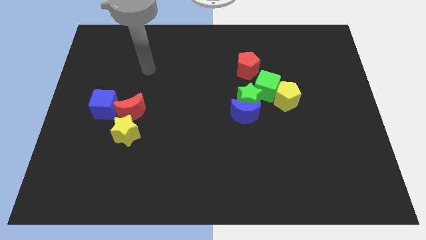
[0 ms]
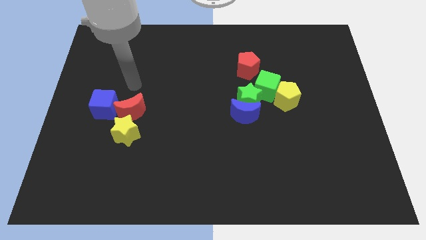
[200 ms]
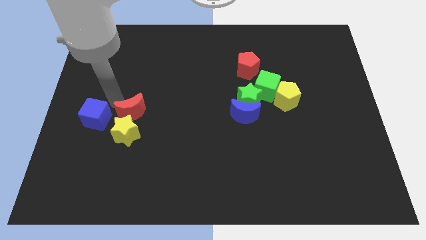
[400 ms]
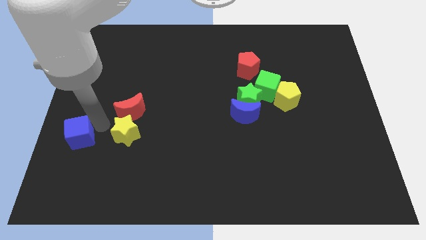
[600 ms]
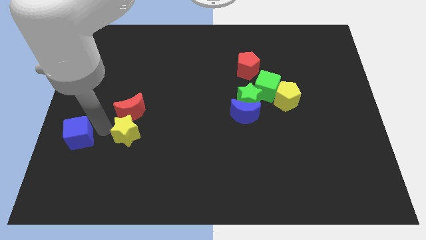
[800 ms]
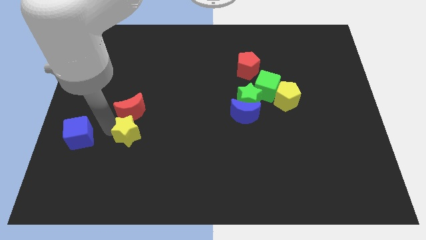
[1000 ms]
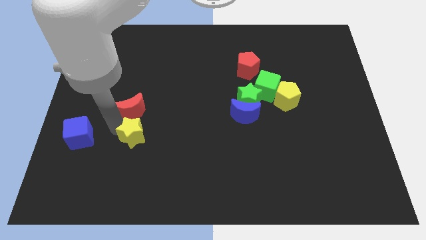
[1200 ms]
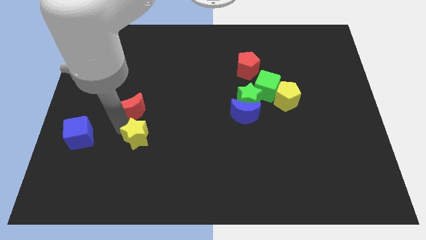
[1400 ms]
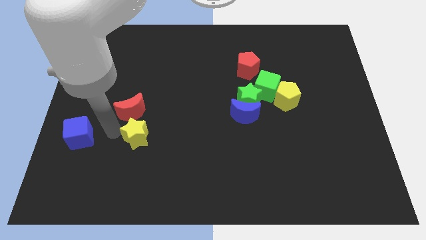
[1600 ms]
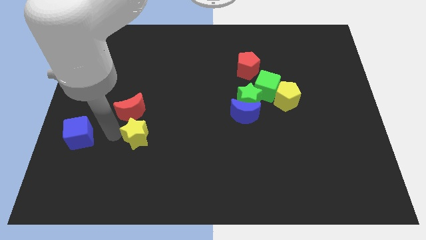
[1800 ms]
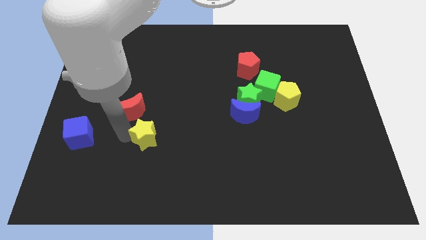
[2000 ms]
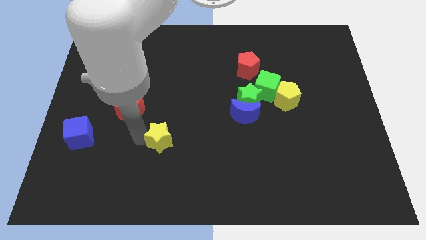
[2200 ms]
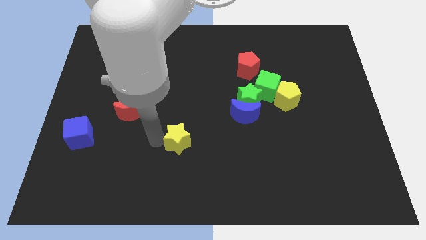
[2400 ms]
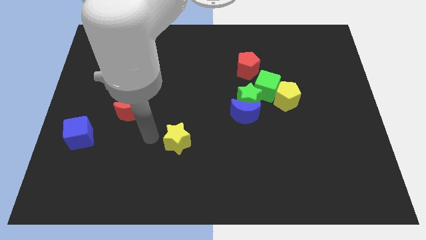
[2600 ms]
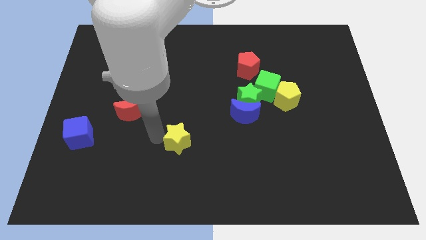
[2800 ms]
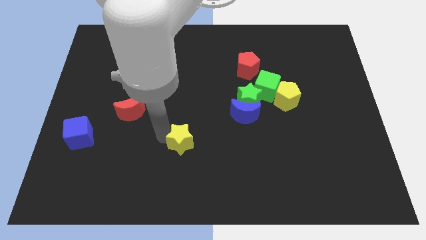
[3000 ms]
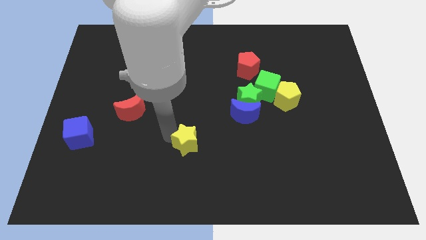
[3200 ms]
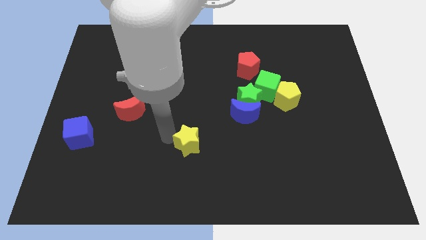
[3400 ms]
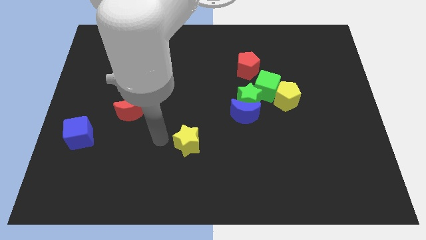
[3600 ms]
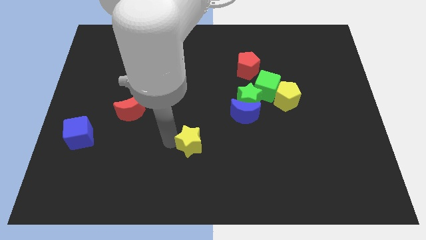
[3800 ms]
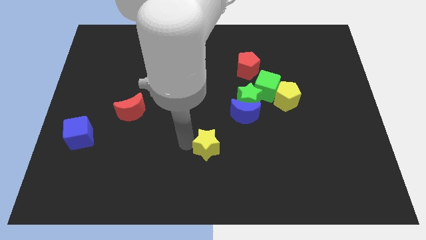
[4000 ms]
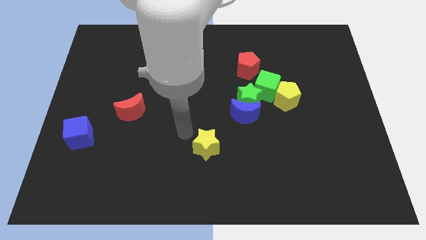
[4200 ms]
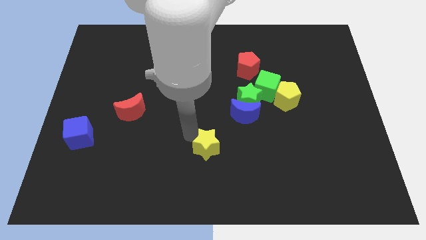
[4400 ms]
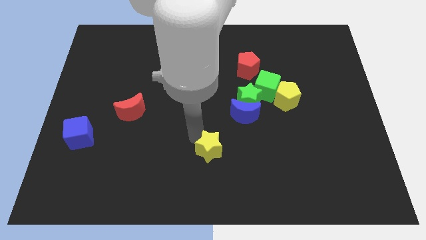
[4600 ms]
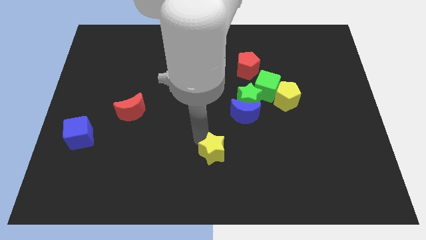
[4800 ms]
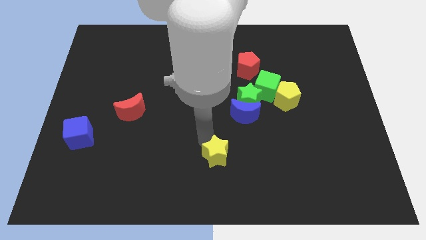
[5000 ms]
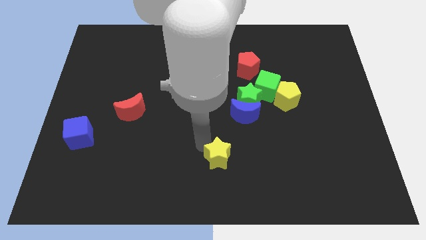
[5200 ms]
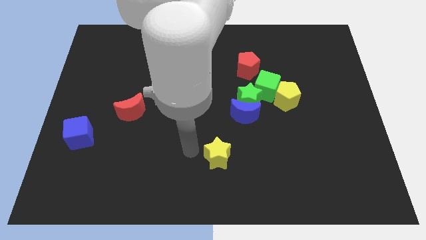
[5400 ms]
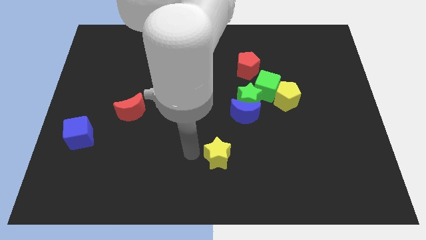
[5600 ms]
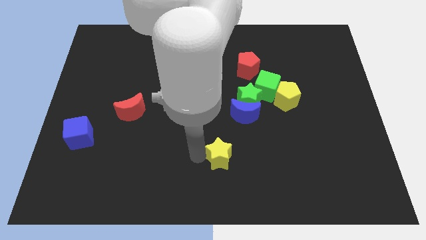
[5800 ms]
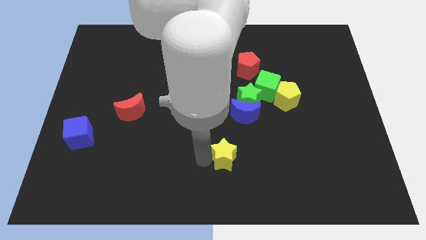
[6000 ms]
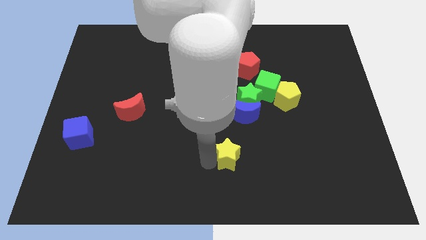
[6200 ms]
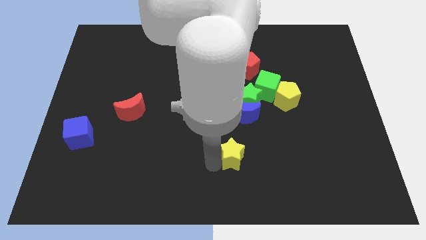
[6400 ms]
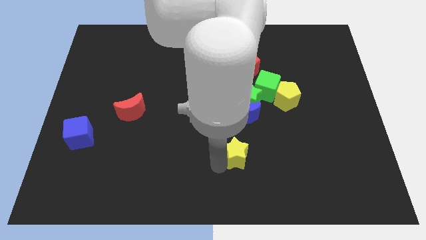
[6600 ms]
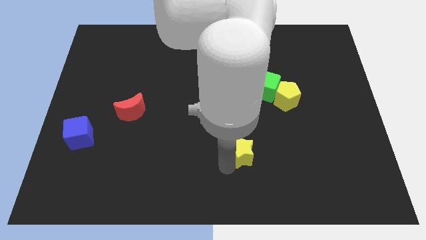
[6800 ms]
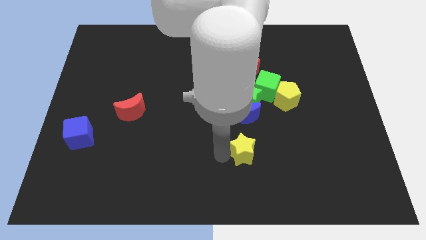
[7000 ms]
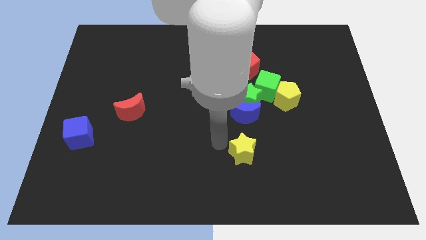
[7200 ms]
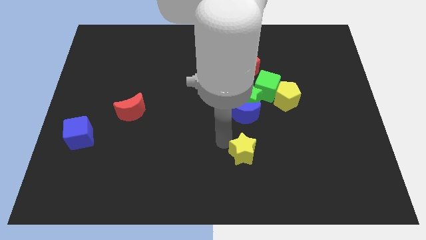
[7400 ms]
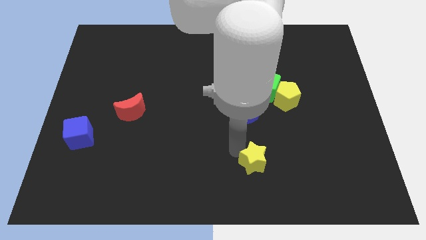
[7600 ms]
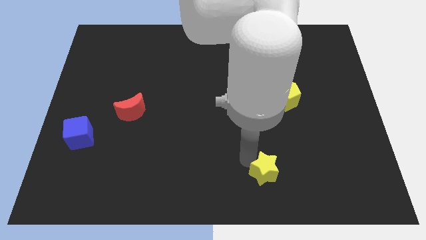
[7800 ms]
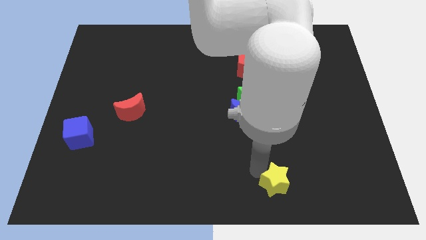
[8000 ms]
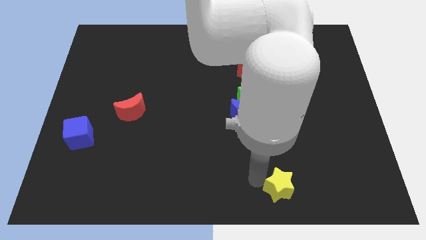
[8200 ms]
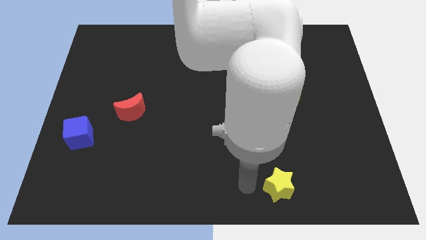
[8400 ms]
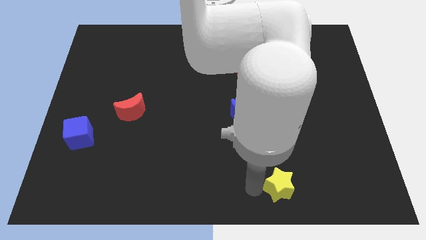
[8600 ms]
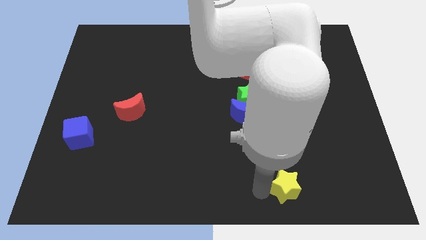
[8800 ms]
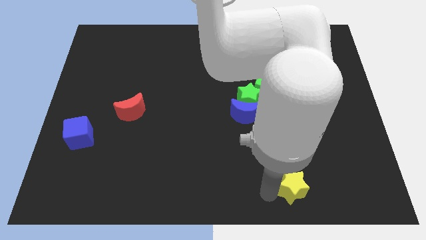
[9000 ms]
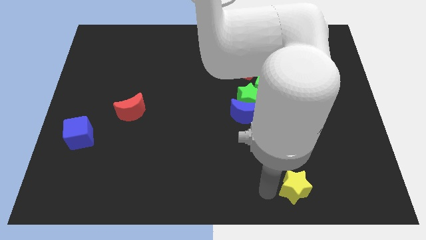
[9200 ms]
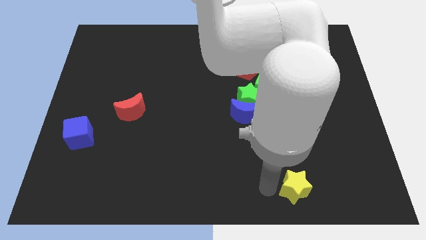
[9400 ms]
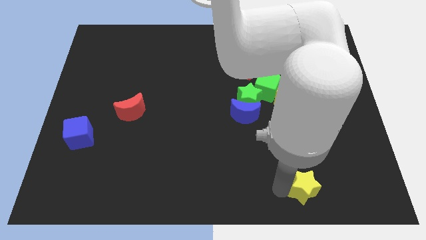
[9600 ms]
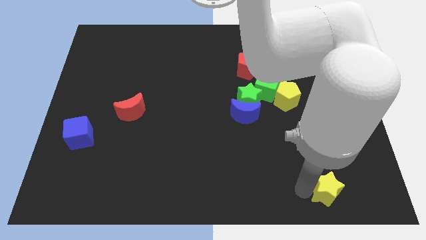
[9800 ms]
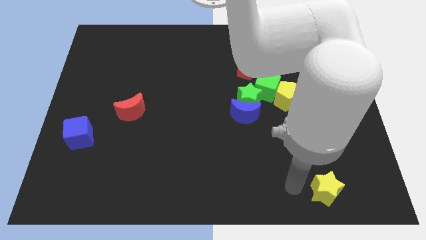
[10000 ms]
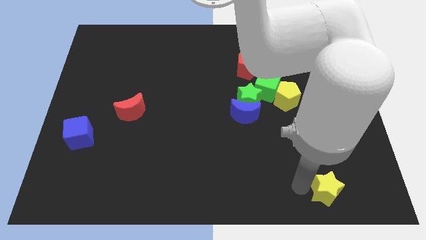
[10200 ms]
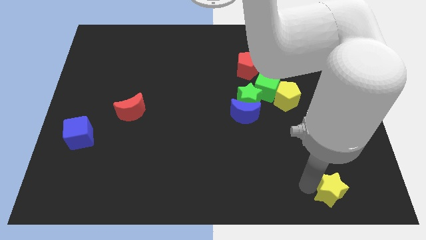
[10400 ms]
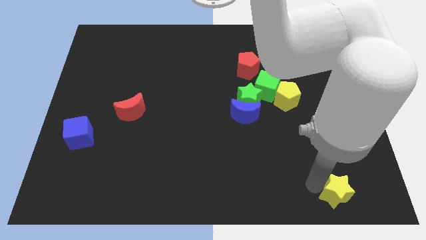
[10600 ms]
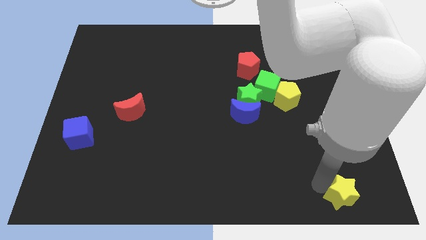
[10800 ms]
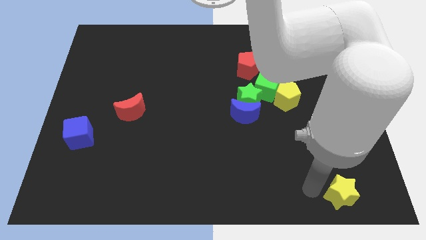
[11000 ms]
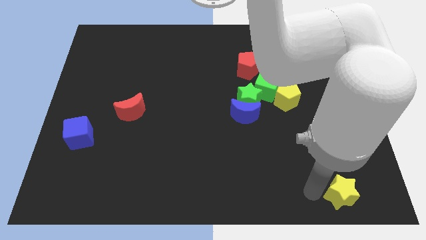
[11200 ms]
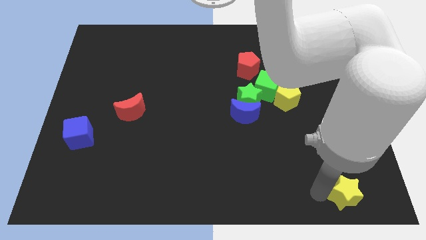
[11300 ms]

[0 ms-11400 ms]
move the yellow star to the bottom right
